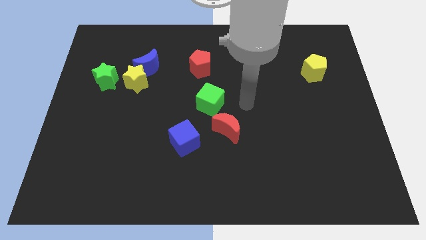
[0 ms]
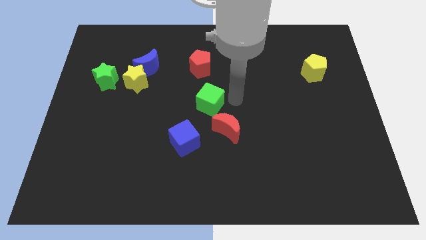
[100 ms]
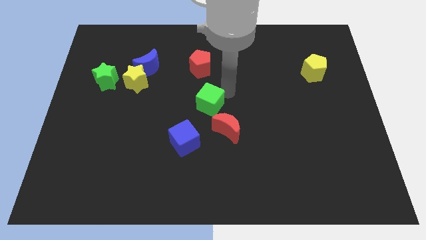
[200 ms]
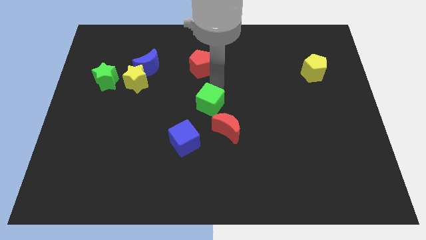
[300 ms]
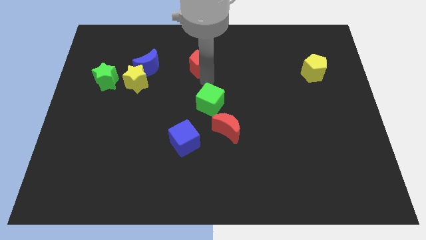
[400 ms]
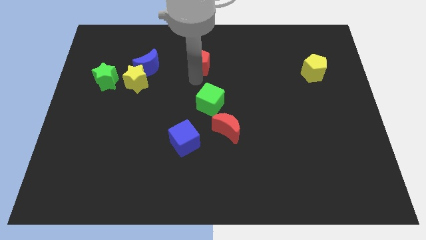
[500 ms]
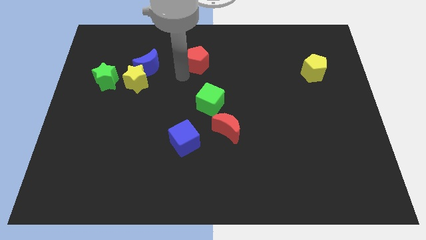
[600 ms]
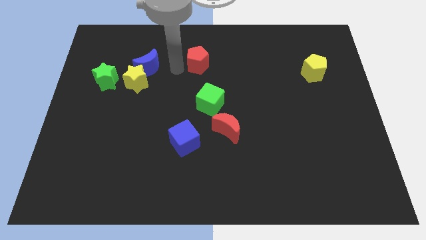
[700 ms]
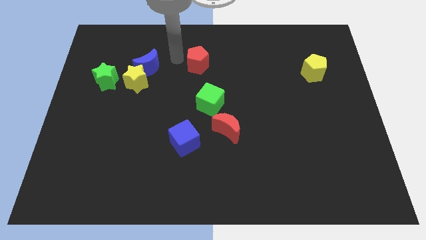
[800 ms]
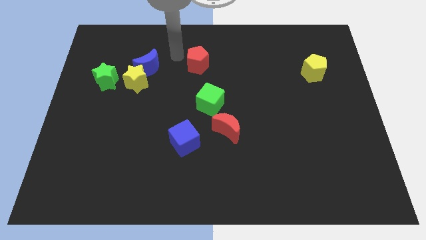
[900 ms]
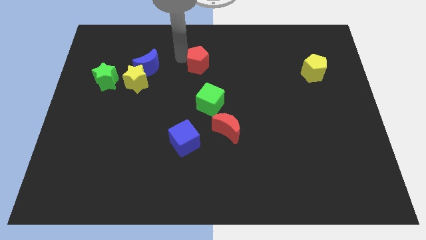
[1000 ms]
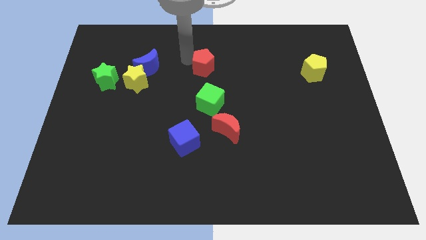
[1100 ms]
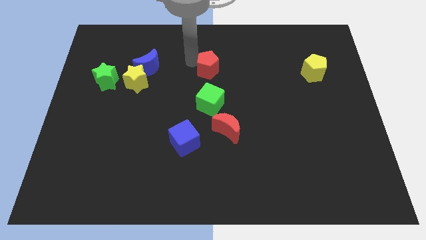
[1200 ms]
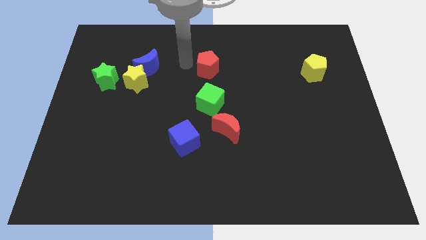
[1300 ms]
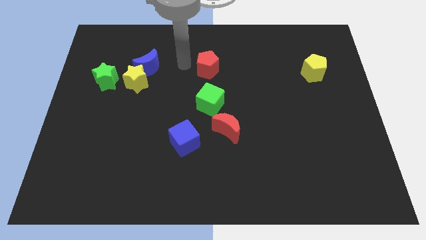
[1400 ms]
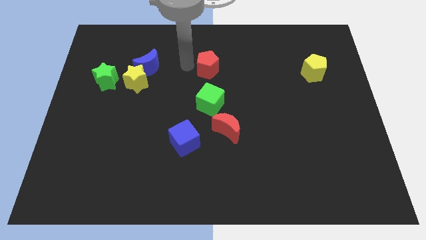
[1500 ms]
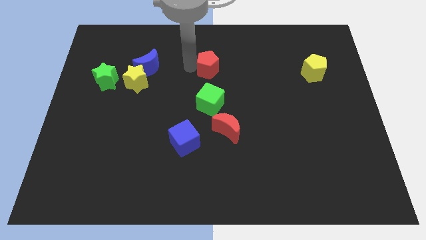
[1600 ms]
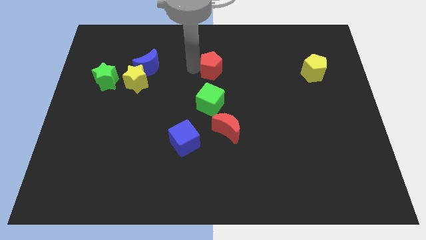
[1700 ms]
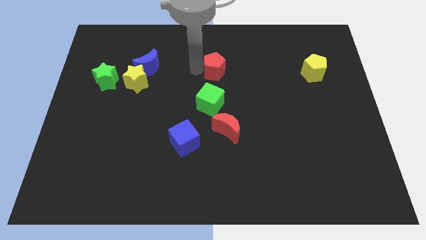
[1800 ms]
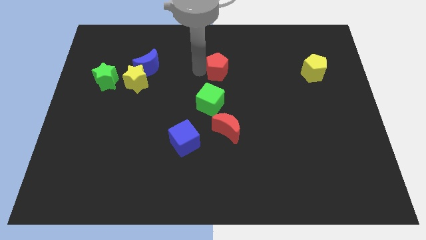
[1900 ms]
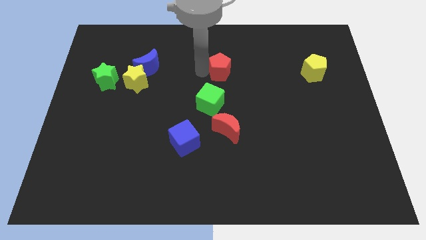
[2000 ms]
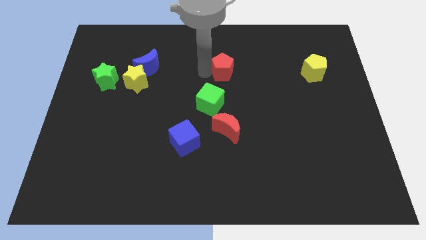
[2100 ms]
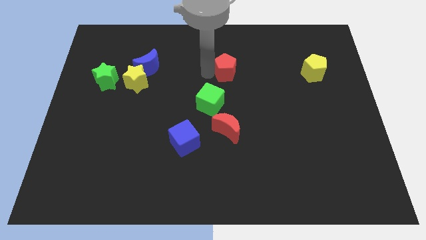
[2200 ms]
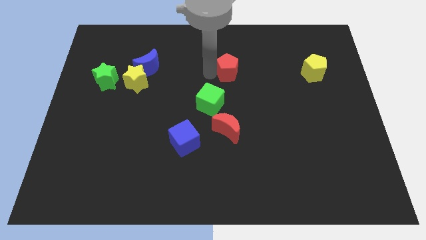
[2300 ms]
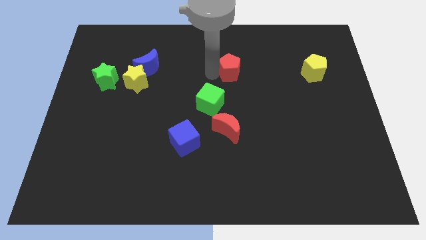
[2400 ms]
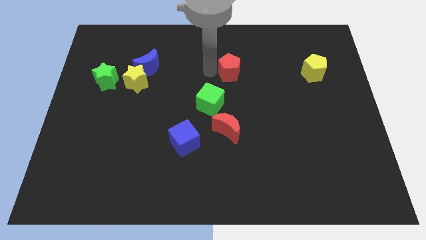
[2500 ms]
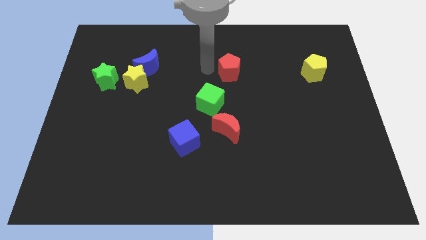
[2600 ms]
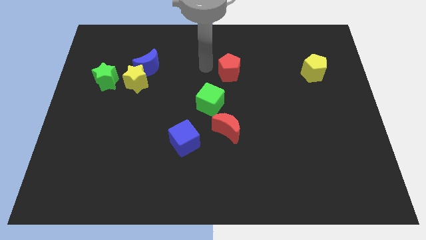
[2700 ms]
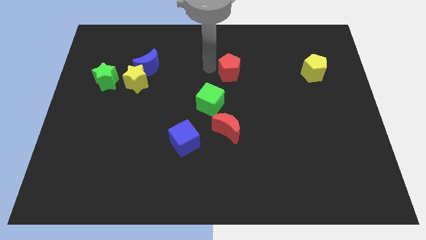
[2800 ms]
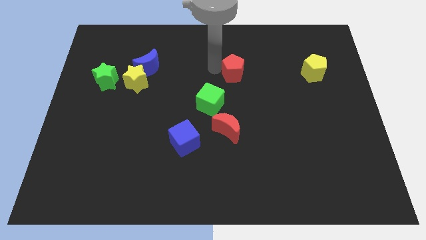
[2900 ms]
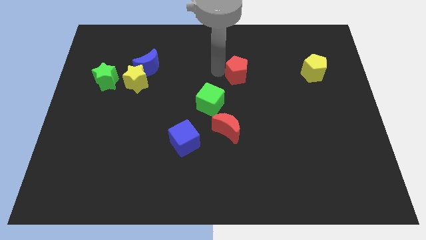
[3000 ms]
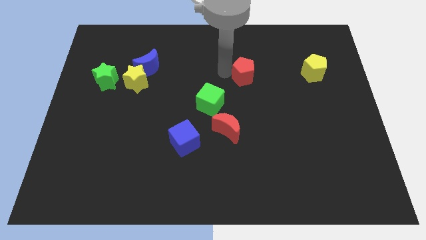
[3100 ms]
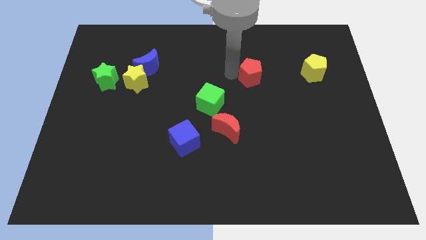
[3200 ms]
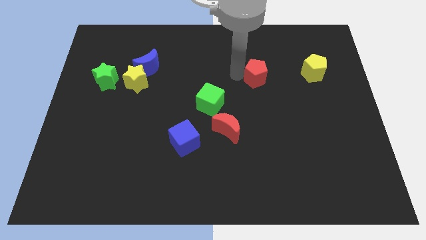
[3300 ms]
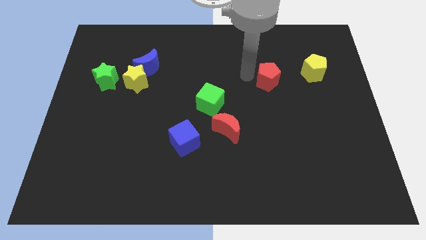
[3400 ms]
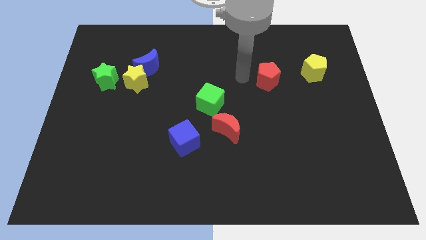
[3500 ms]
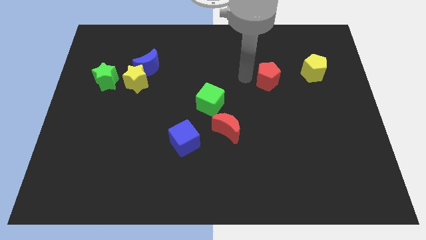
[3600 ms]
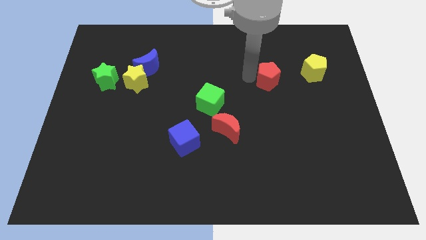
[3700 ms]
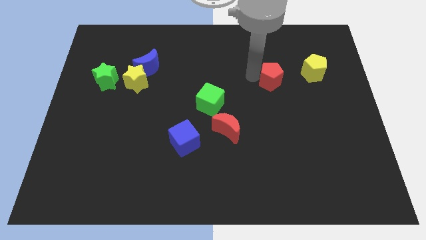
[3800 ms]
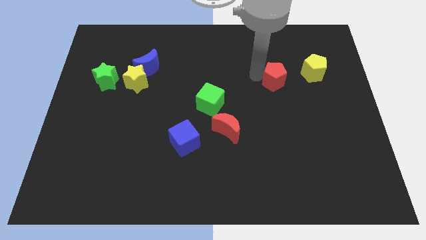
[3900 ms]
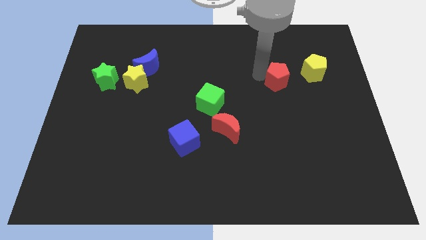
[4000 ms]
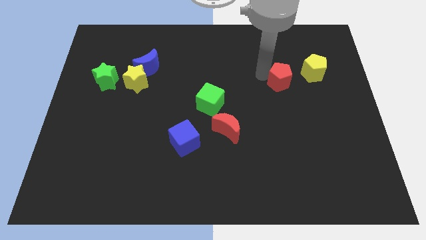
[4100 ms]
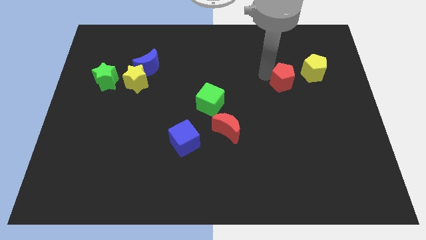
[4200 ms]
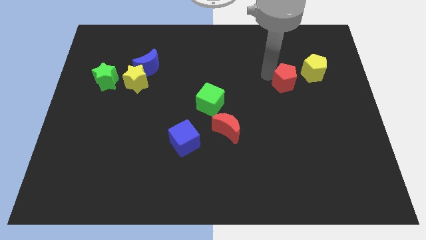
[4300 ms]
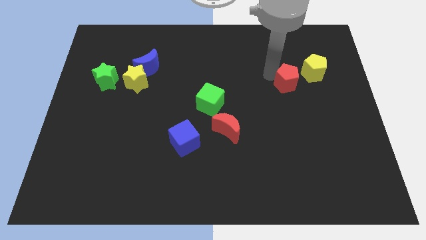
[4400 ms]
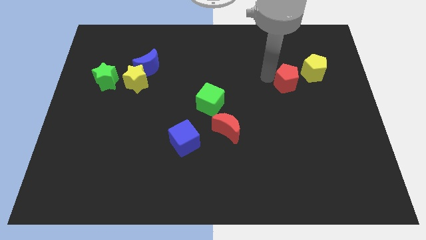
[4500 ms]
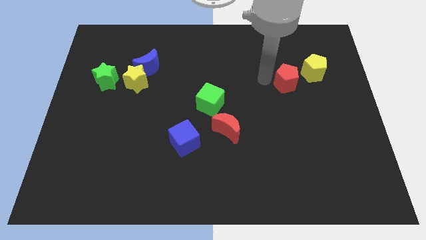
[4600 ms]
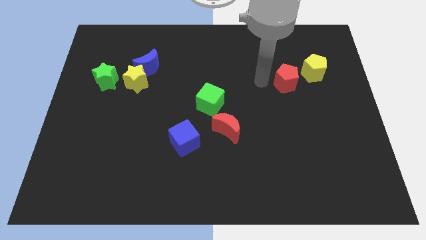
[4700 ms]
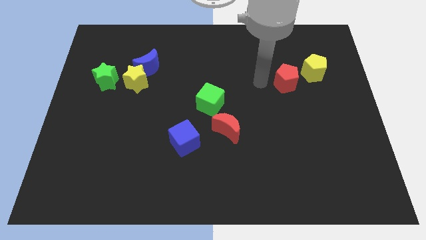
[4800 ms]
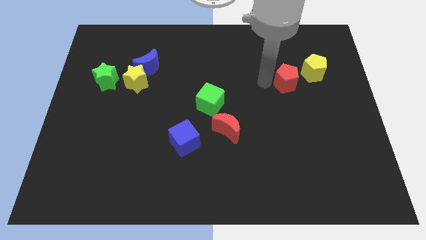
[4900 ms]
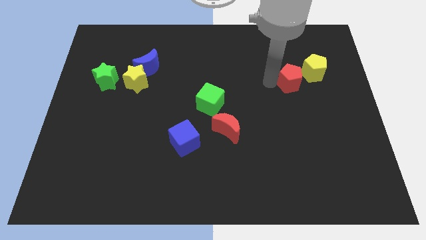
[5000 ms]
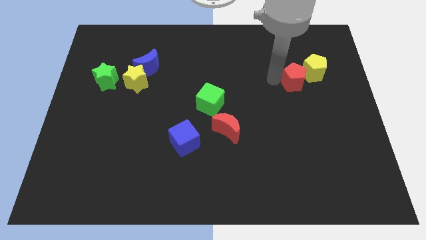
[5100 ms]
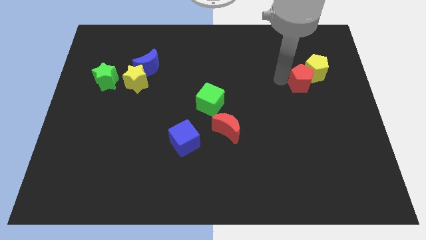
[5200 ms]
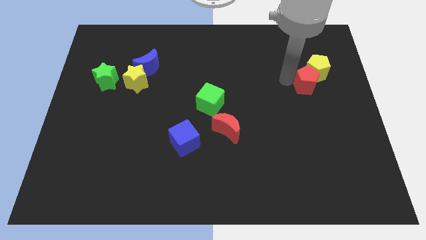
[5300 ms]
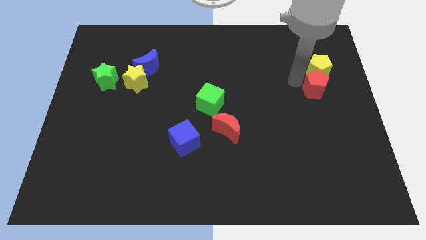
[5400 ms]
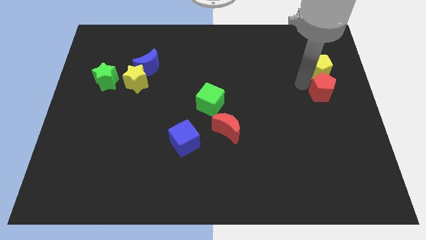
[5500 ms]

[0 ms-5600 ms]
move the red pentagon to the right side of the board

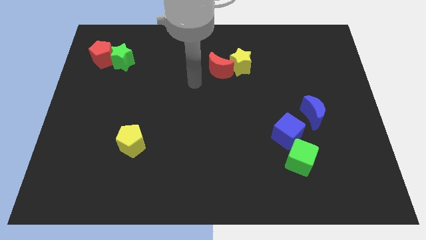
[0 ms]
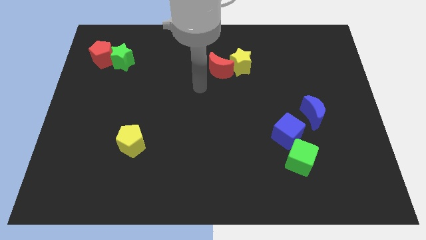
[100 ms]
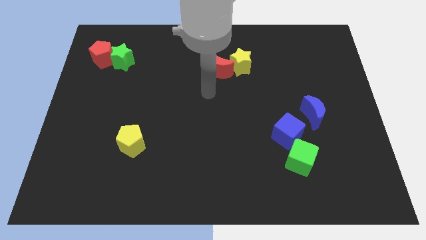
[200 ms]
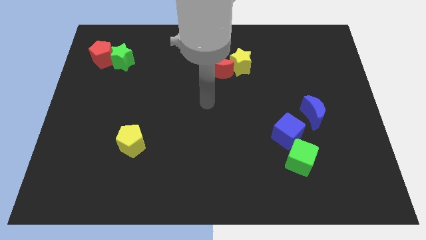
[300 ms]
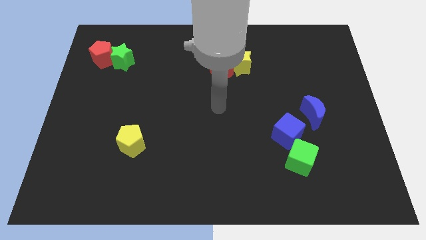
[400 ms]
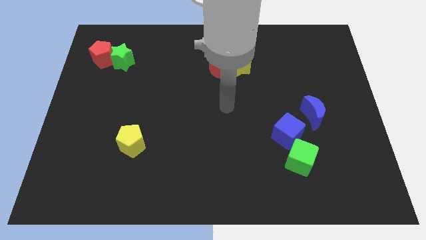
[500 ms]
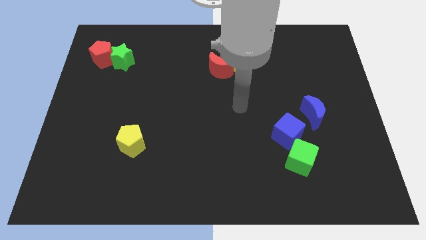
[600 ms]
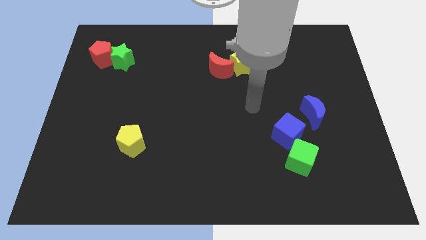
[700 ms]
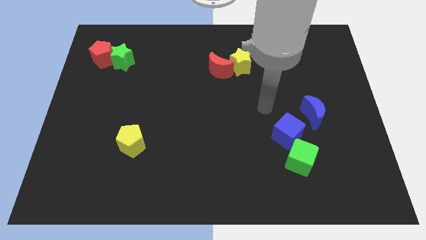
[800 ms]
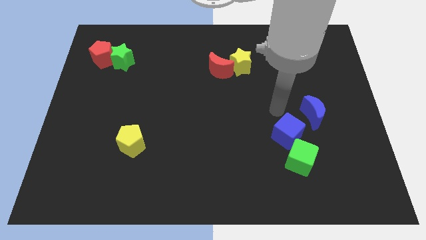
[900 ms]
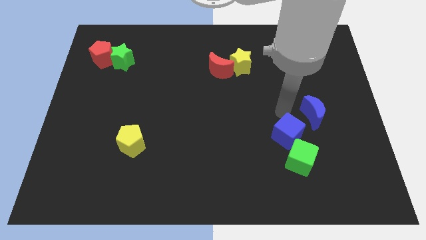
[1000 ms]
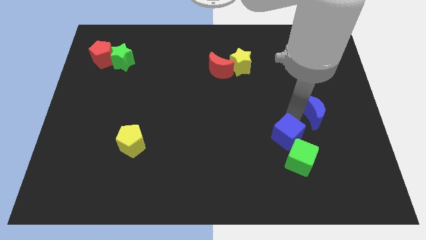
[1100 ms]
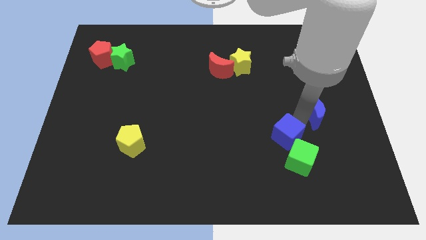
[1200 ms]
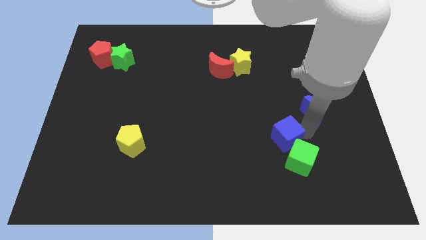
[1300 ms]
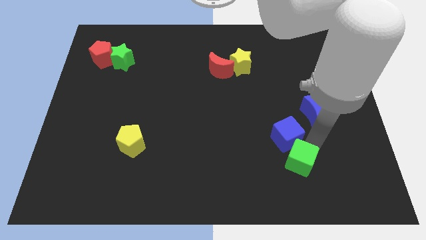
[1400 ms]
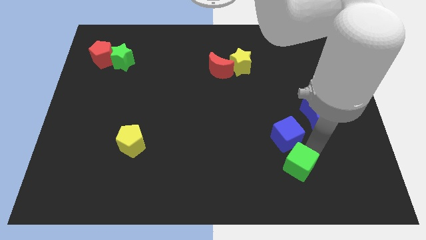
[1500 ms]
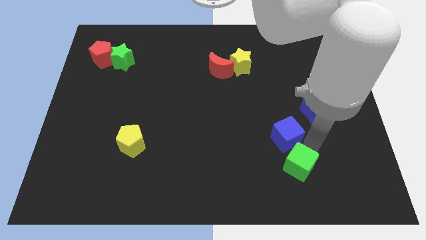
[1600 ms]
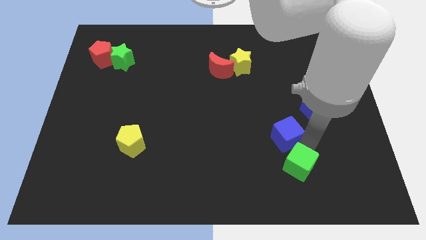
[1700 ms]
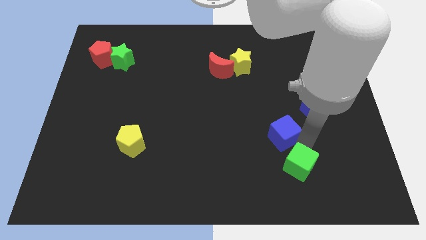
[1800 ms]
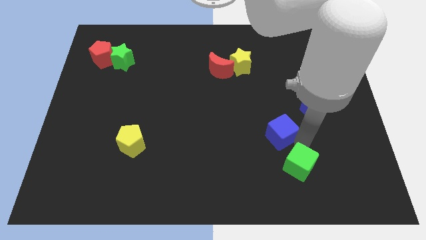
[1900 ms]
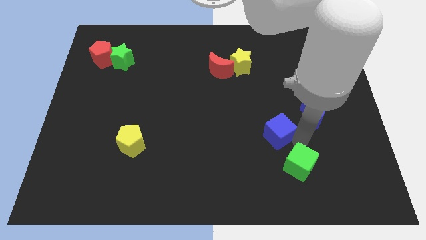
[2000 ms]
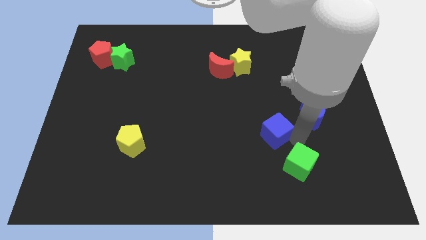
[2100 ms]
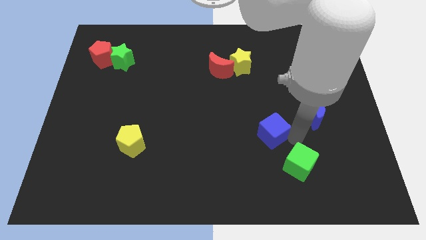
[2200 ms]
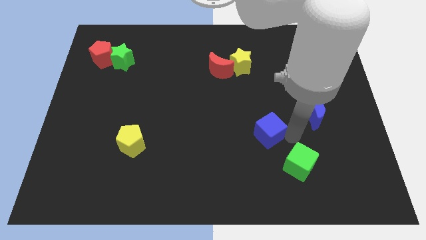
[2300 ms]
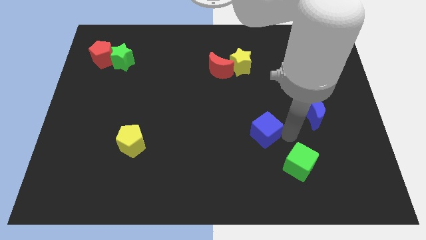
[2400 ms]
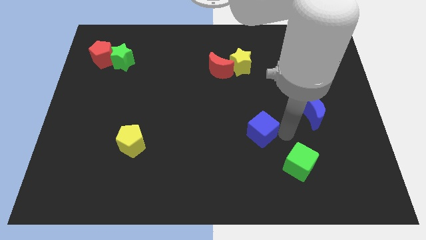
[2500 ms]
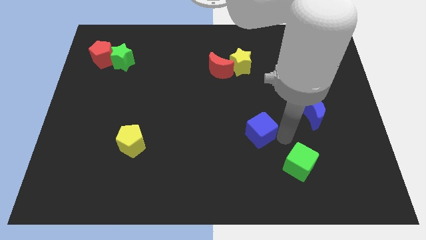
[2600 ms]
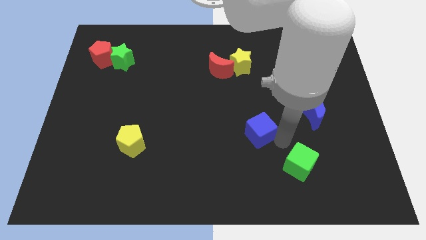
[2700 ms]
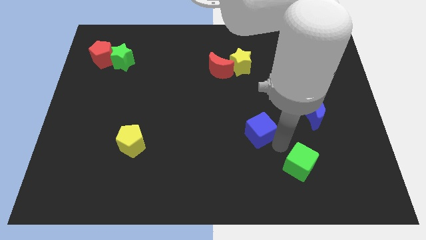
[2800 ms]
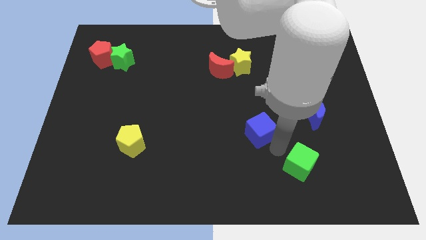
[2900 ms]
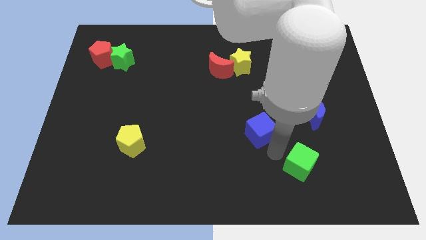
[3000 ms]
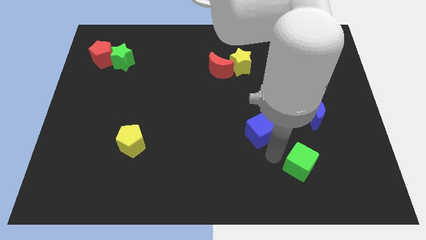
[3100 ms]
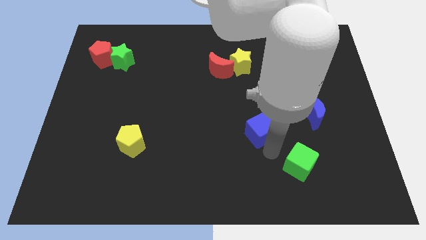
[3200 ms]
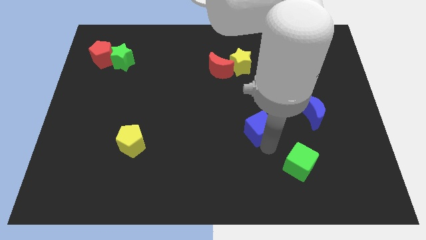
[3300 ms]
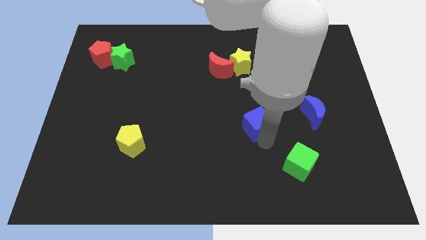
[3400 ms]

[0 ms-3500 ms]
slide the blue cube to the middle
